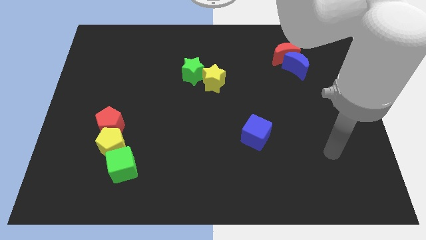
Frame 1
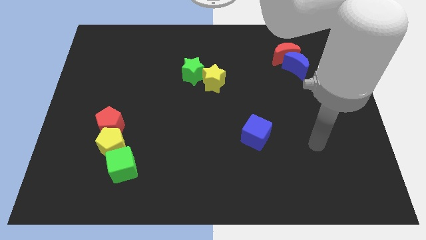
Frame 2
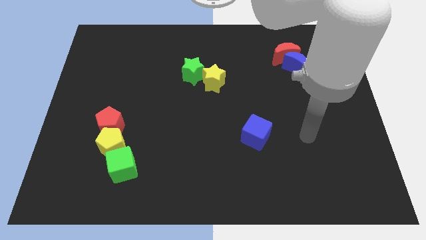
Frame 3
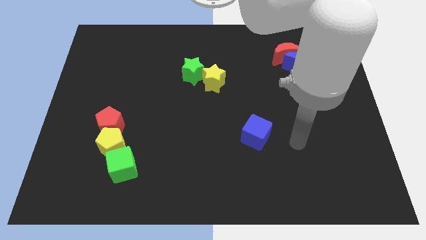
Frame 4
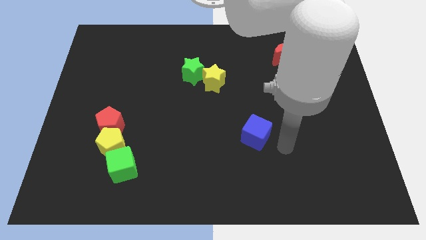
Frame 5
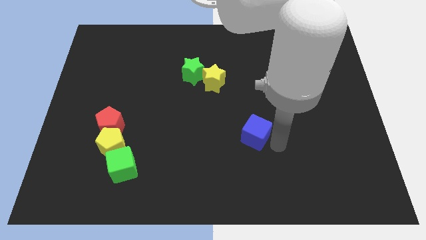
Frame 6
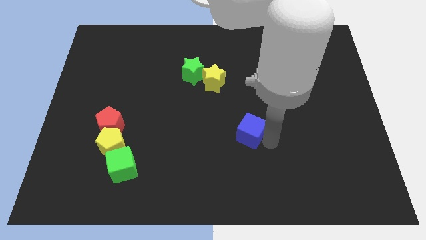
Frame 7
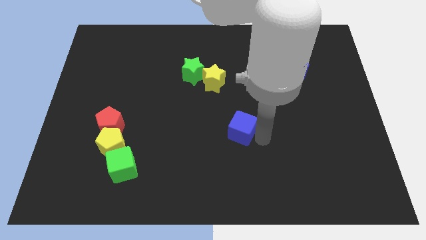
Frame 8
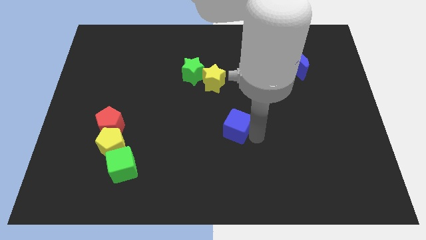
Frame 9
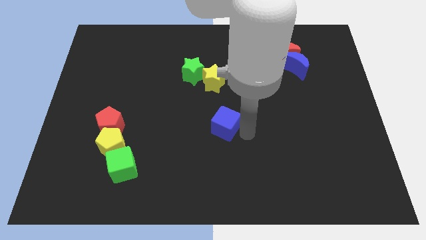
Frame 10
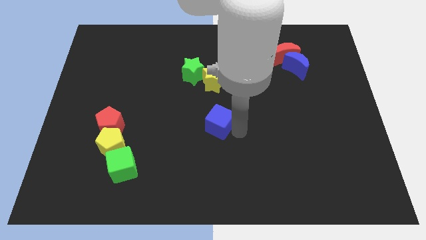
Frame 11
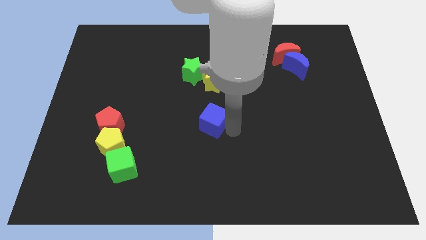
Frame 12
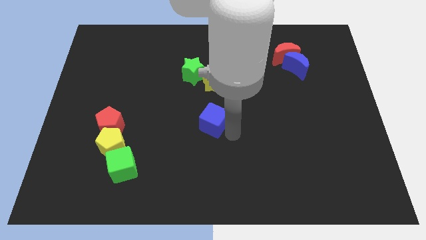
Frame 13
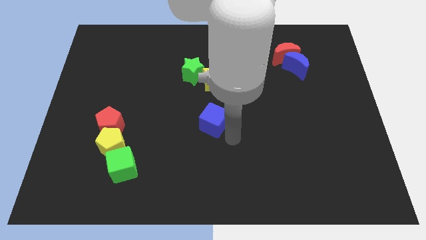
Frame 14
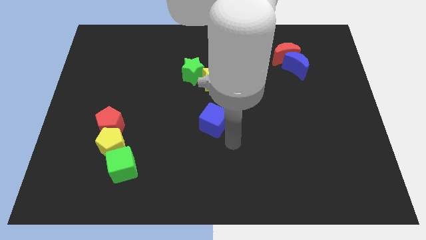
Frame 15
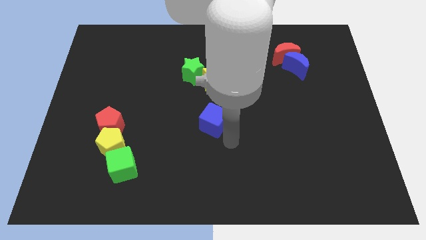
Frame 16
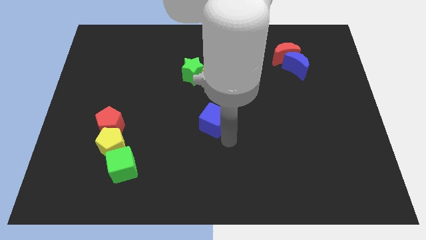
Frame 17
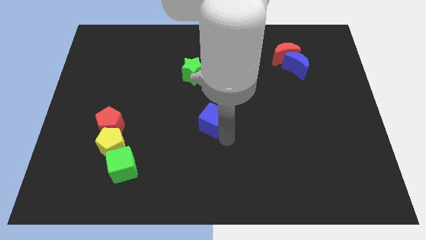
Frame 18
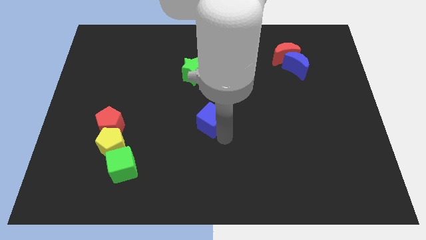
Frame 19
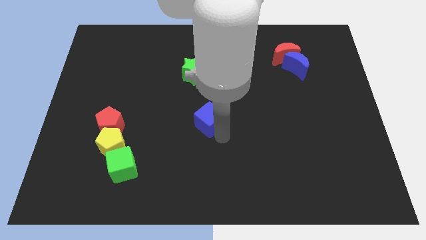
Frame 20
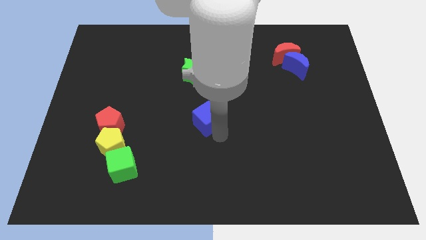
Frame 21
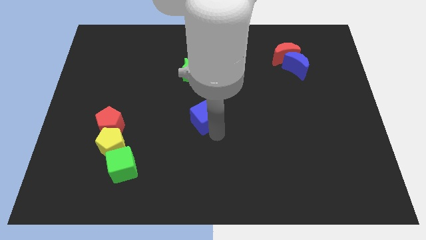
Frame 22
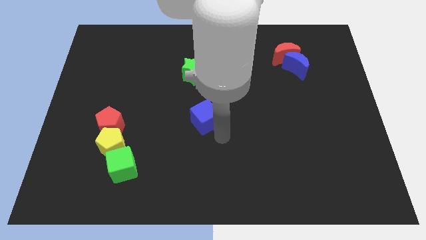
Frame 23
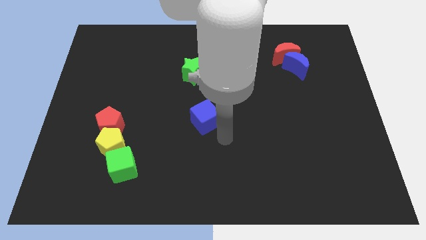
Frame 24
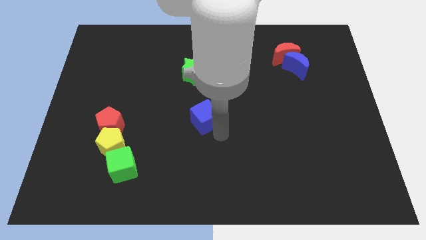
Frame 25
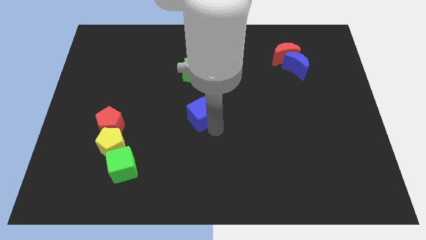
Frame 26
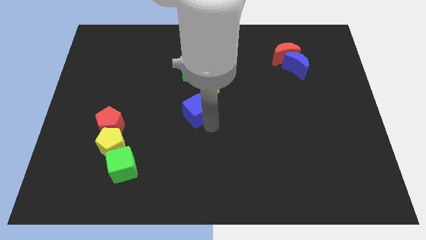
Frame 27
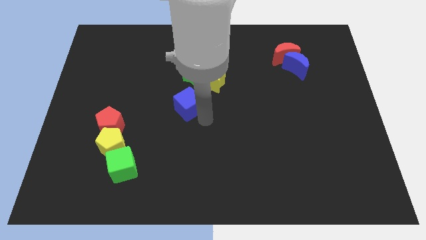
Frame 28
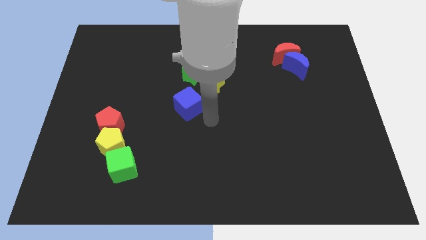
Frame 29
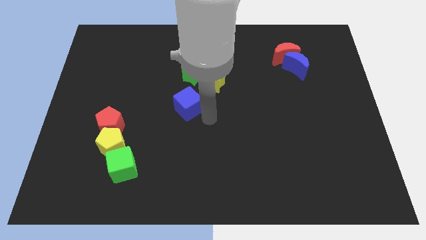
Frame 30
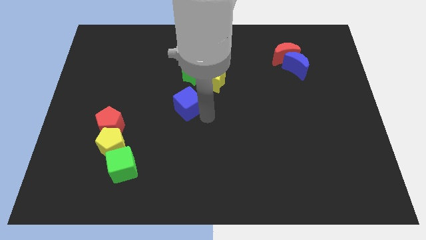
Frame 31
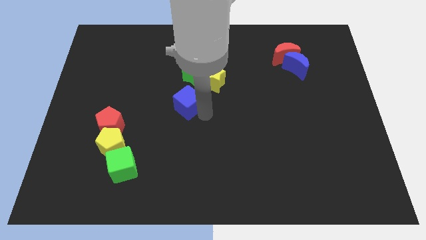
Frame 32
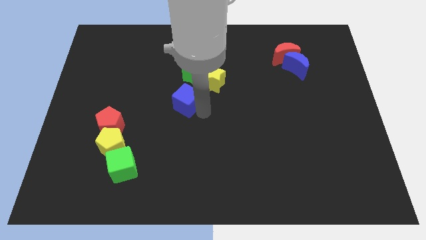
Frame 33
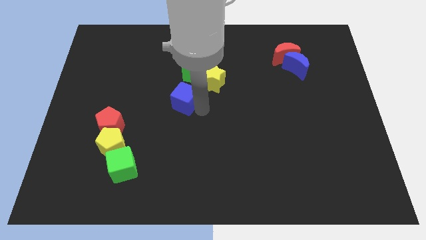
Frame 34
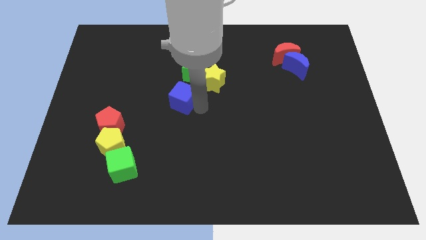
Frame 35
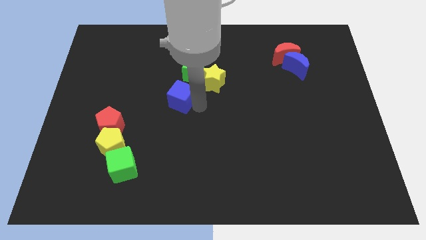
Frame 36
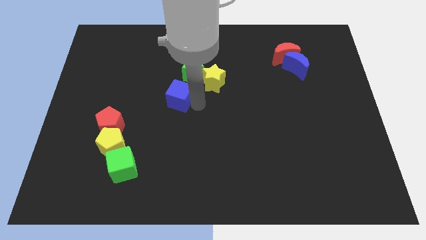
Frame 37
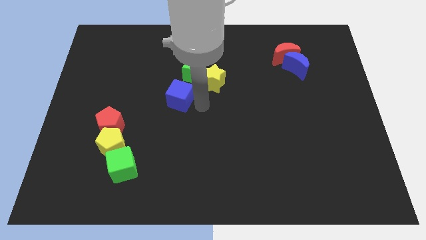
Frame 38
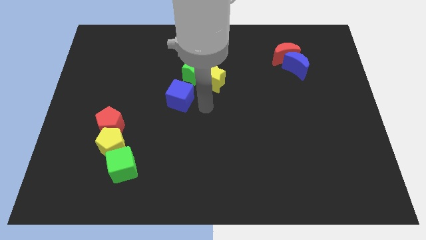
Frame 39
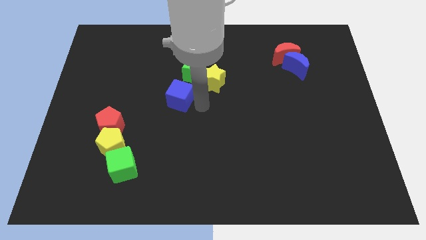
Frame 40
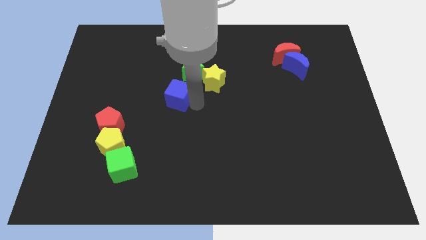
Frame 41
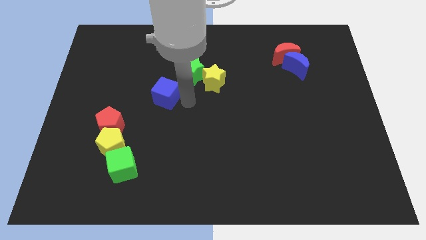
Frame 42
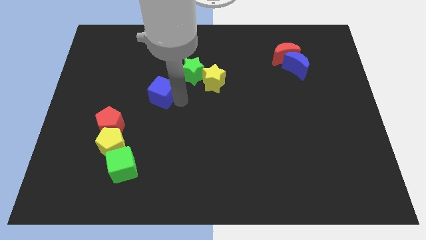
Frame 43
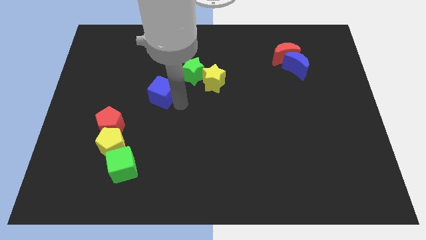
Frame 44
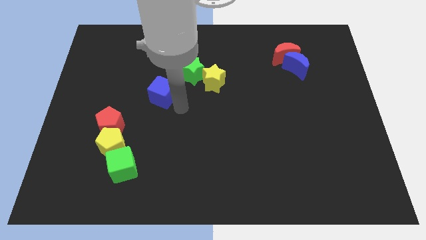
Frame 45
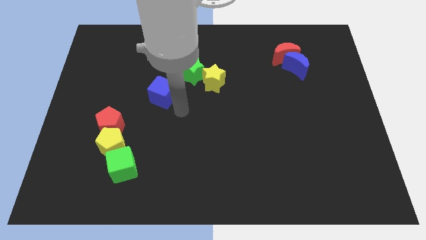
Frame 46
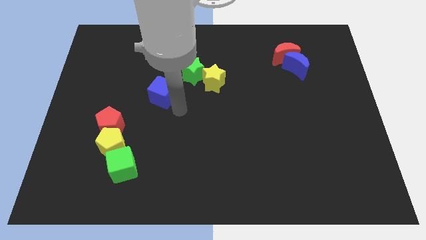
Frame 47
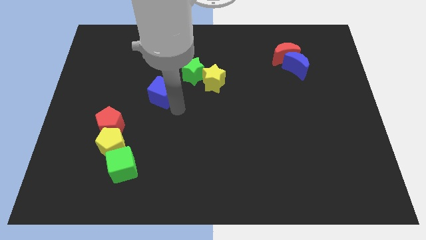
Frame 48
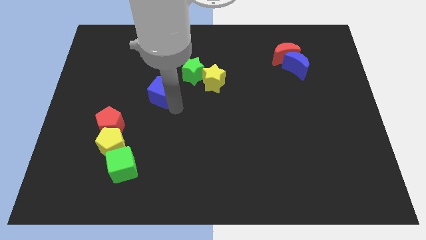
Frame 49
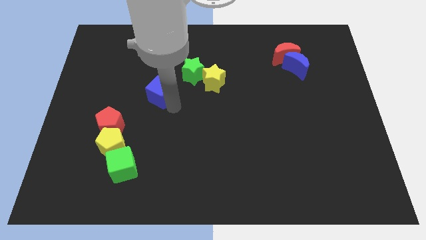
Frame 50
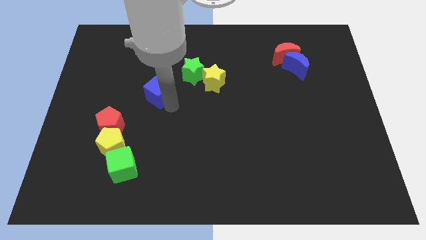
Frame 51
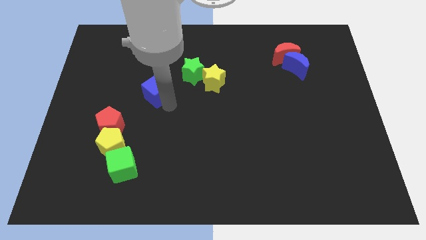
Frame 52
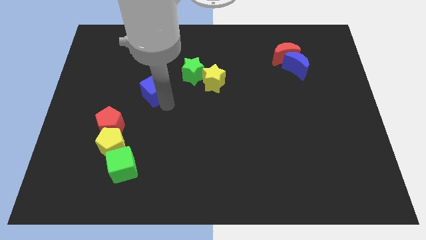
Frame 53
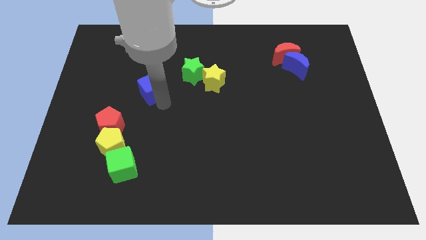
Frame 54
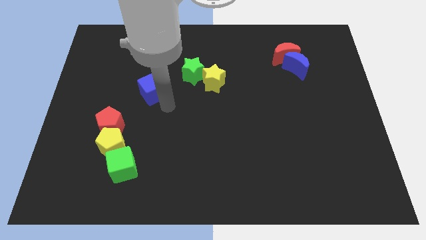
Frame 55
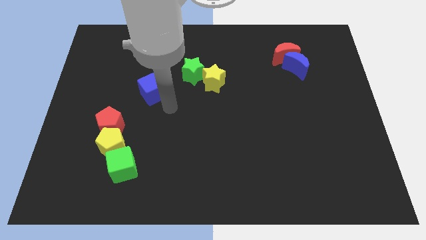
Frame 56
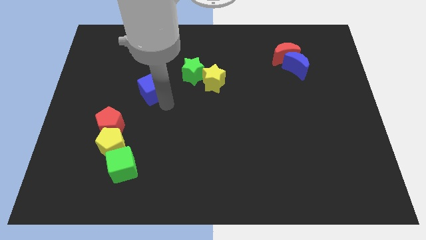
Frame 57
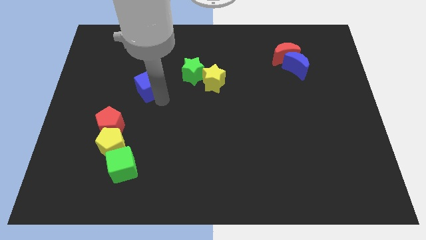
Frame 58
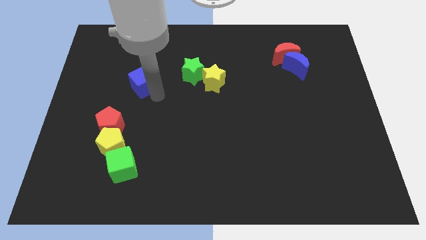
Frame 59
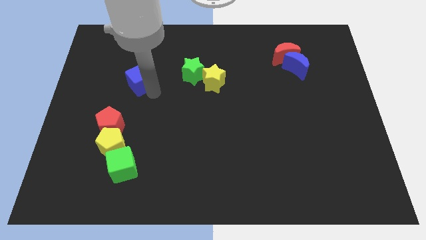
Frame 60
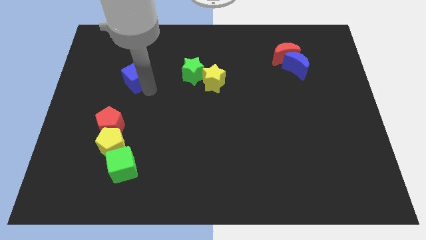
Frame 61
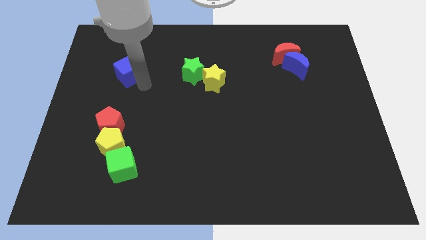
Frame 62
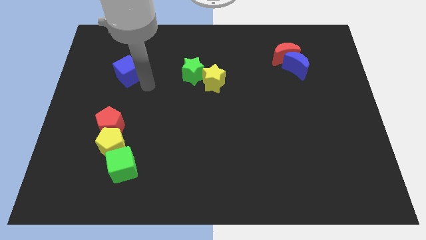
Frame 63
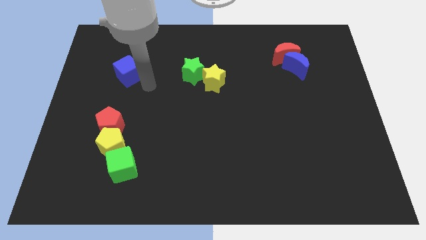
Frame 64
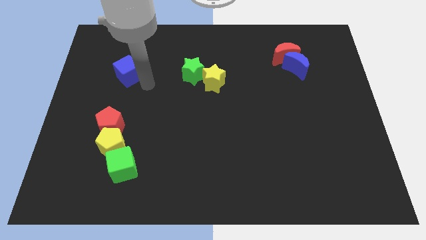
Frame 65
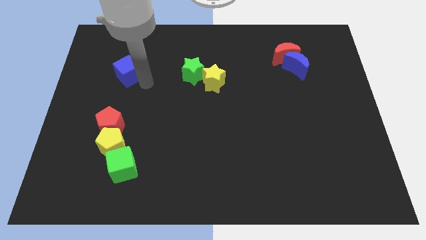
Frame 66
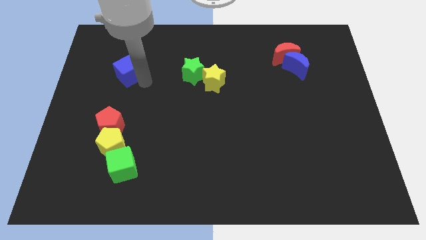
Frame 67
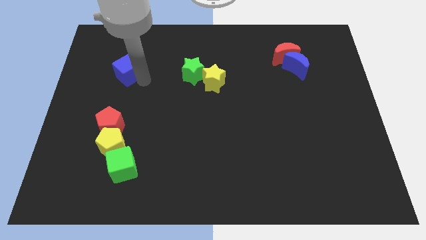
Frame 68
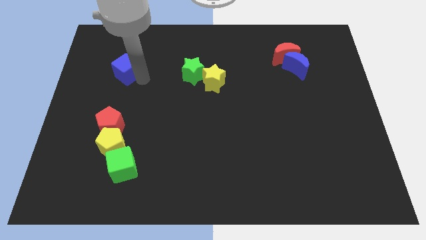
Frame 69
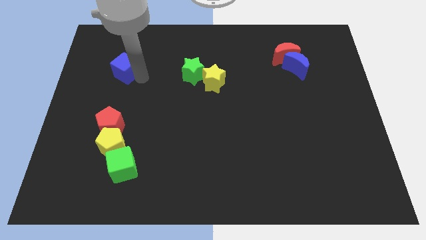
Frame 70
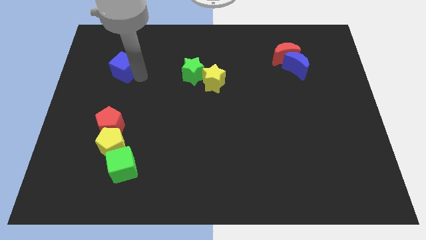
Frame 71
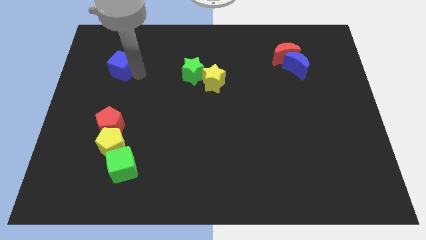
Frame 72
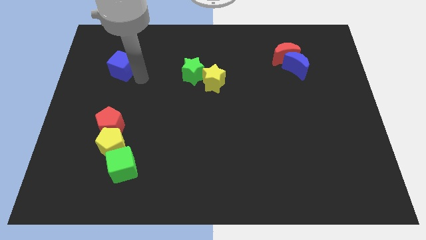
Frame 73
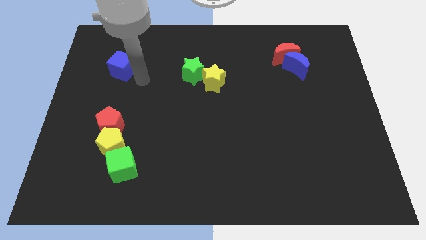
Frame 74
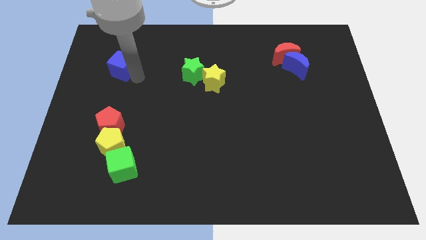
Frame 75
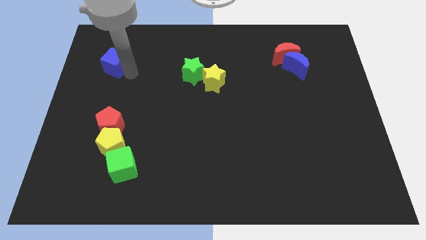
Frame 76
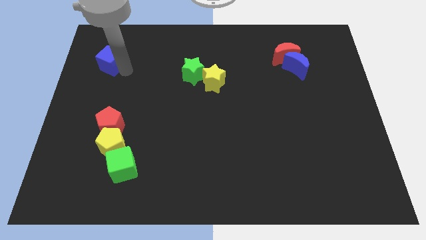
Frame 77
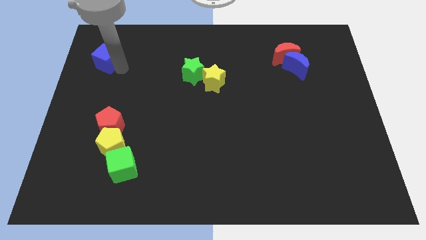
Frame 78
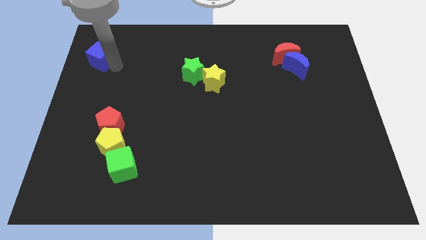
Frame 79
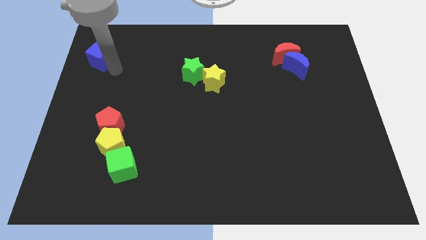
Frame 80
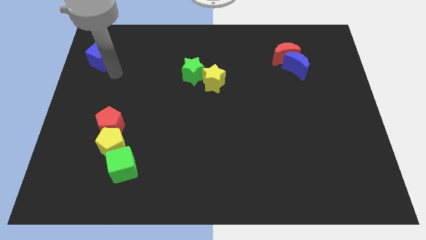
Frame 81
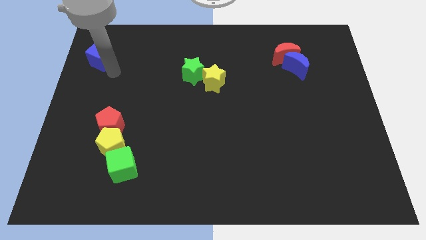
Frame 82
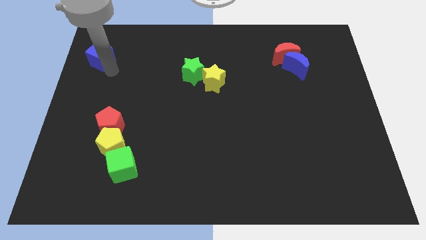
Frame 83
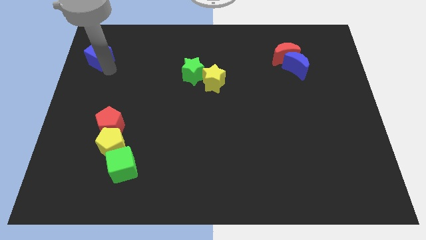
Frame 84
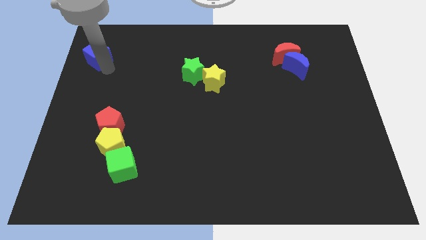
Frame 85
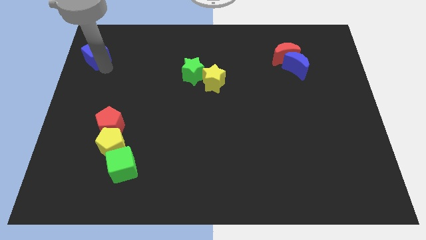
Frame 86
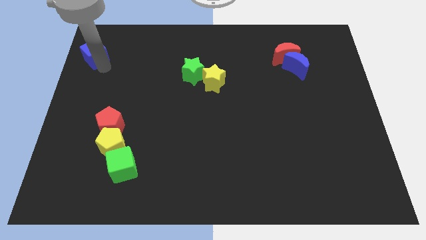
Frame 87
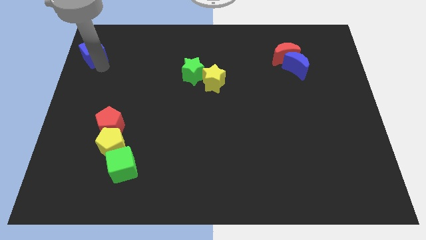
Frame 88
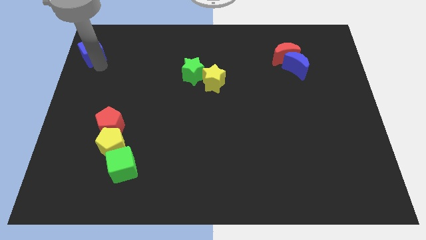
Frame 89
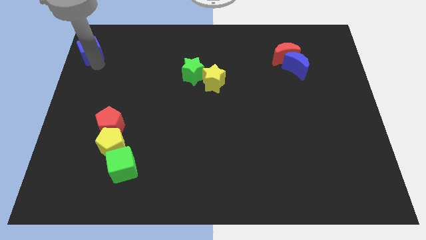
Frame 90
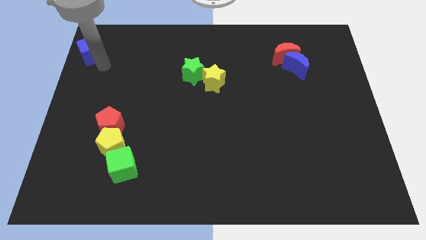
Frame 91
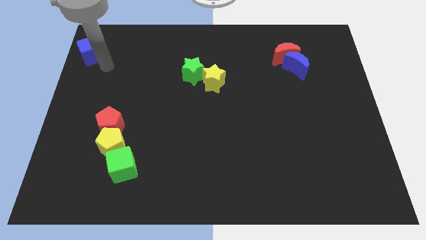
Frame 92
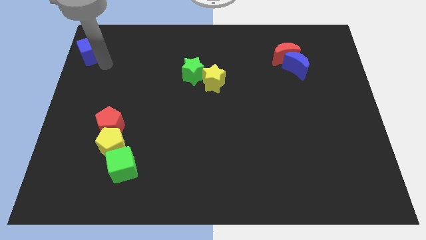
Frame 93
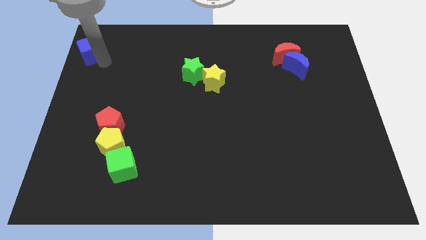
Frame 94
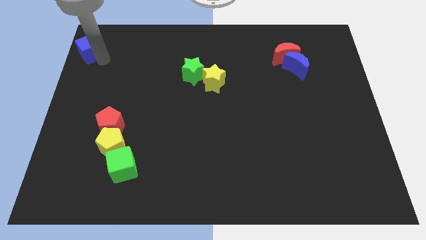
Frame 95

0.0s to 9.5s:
put the blue cube to the upper left corner
